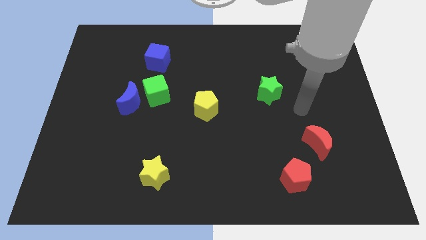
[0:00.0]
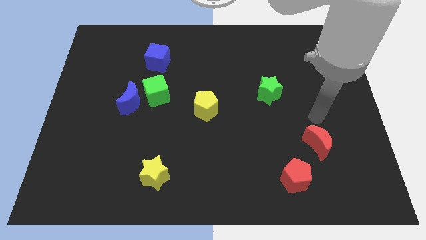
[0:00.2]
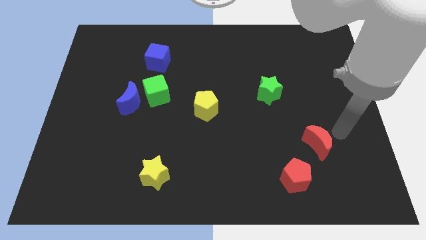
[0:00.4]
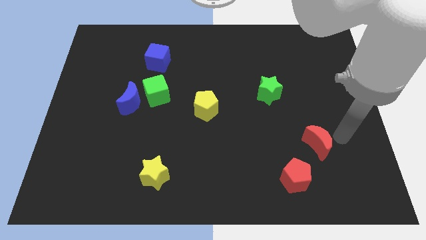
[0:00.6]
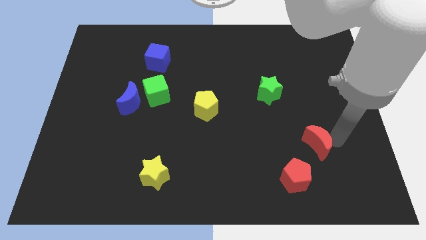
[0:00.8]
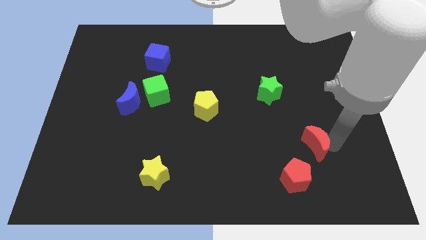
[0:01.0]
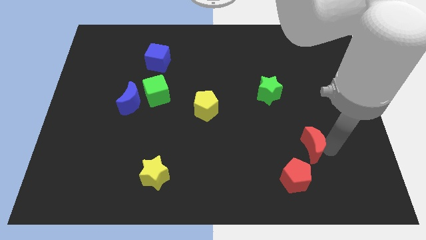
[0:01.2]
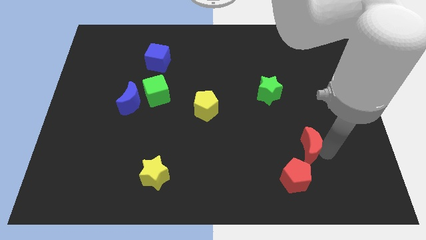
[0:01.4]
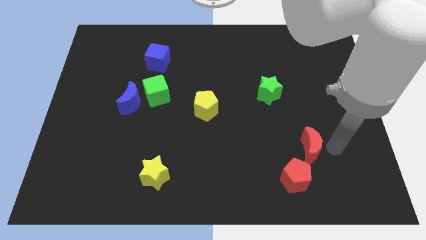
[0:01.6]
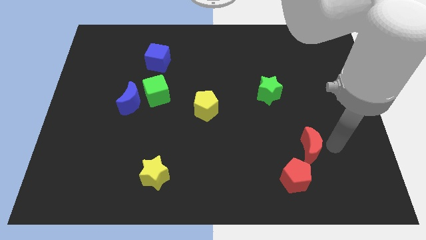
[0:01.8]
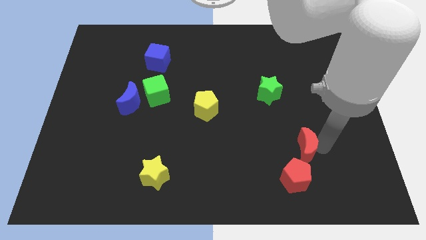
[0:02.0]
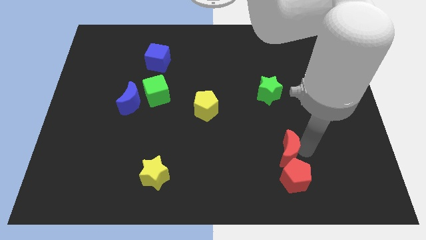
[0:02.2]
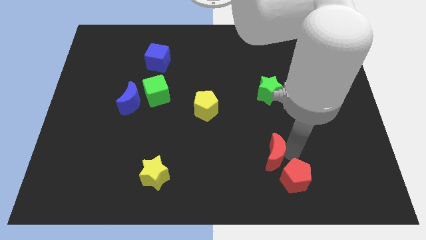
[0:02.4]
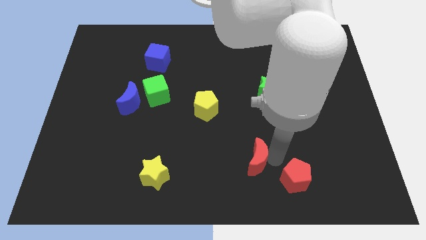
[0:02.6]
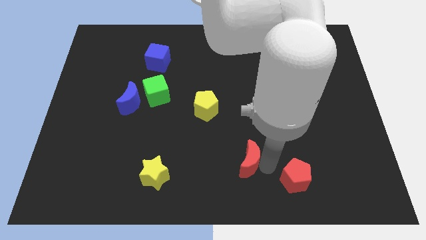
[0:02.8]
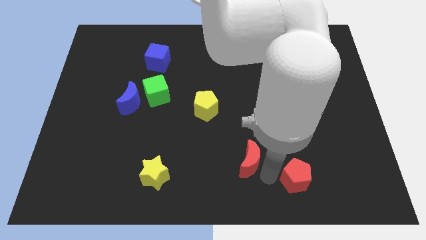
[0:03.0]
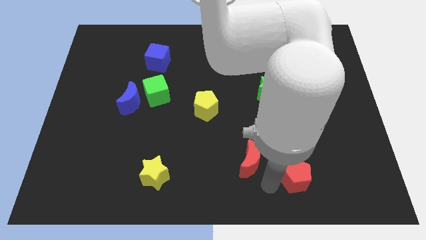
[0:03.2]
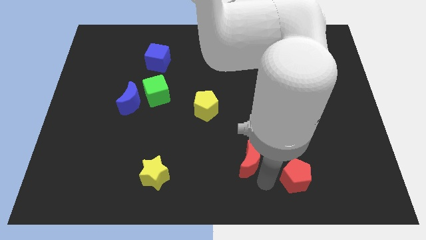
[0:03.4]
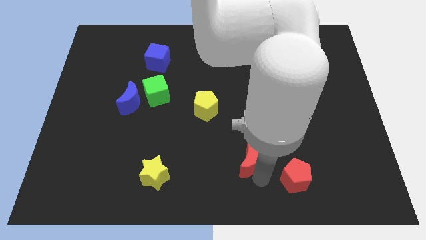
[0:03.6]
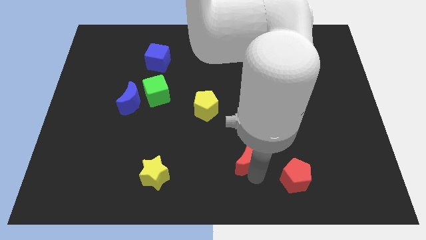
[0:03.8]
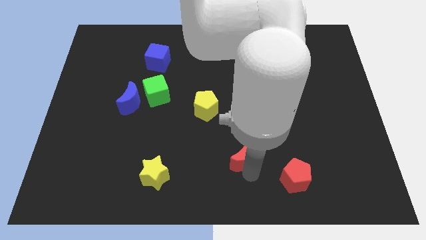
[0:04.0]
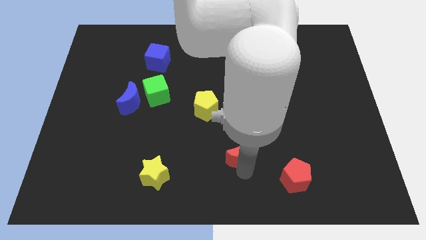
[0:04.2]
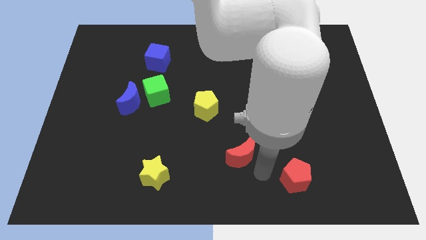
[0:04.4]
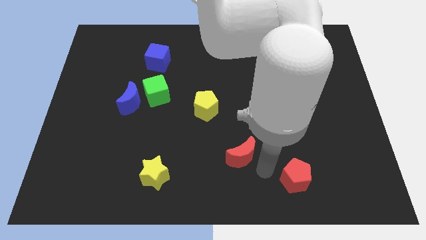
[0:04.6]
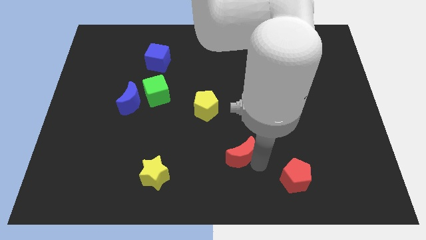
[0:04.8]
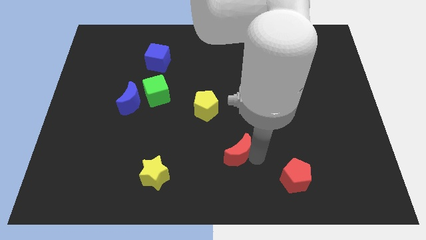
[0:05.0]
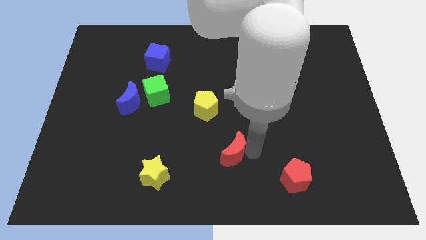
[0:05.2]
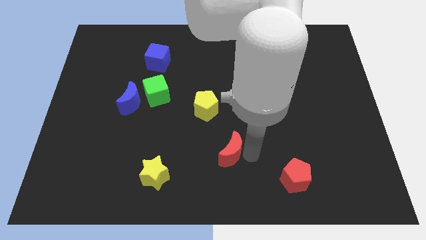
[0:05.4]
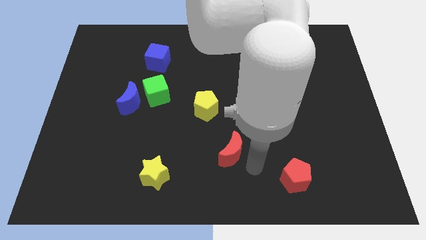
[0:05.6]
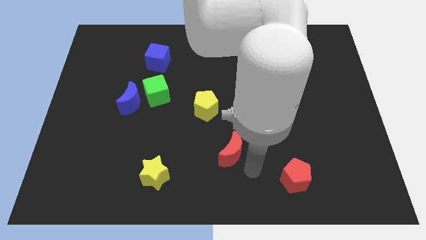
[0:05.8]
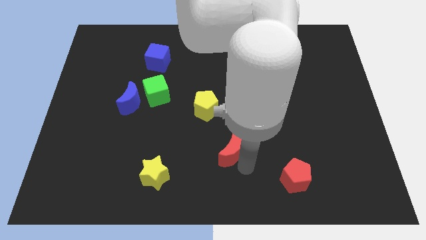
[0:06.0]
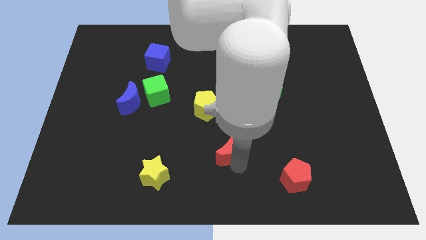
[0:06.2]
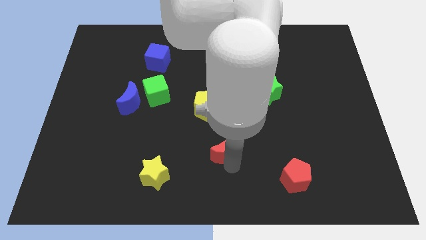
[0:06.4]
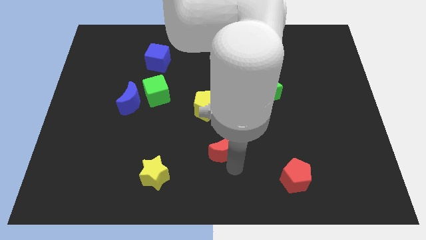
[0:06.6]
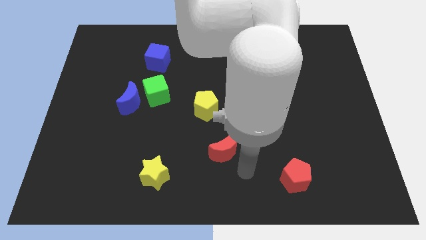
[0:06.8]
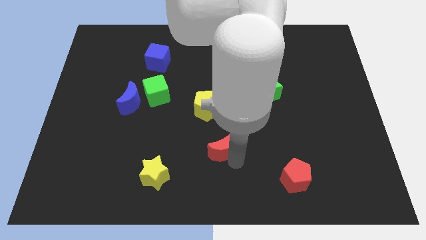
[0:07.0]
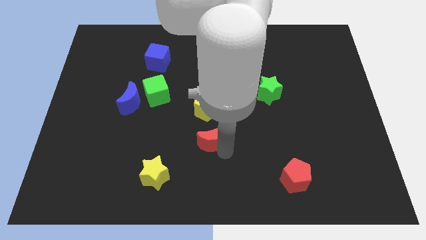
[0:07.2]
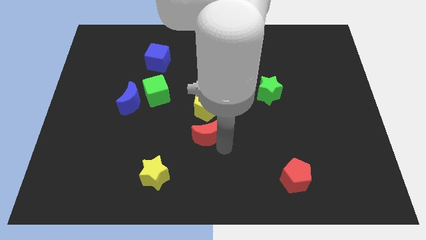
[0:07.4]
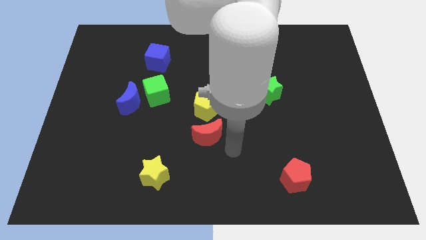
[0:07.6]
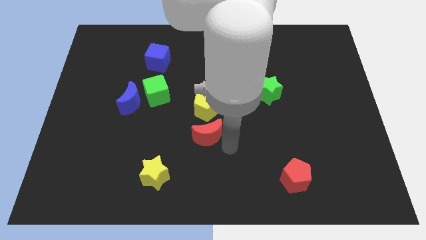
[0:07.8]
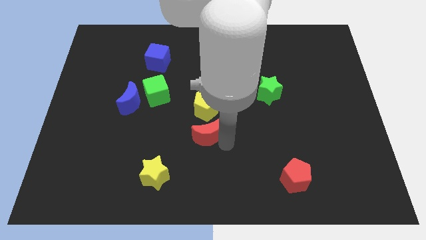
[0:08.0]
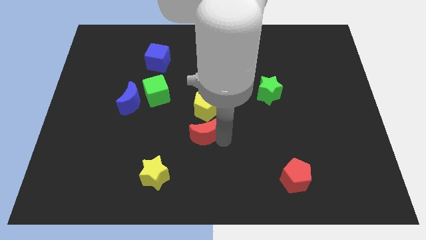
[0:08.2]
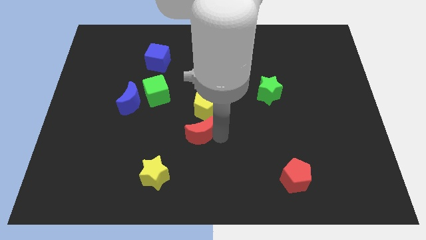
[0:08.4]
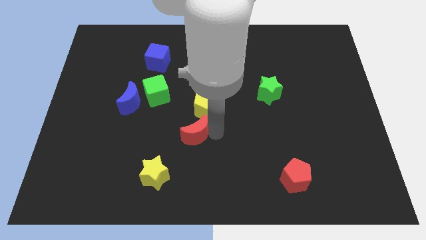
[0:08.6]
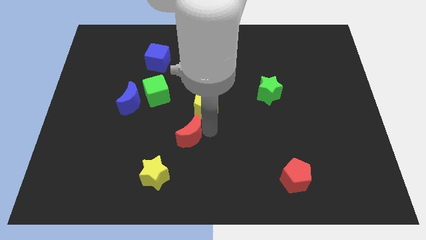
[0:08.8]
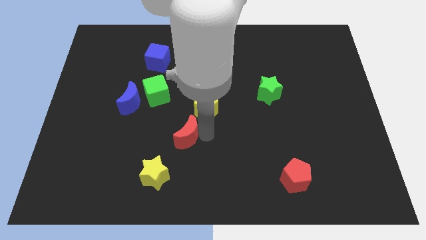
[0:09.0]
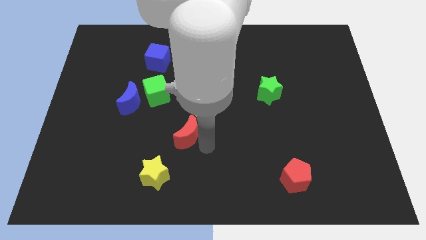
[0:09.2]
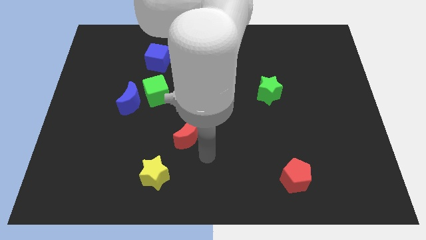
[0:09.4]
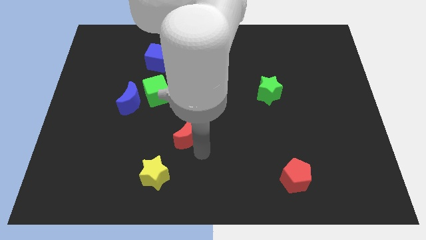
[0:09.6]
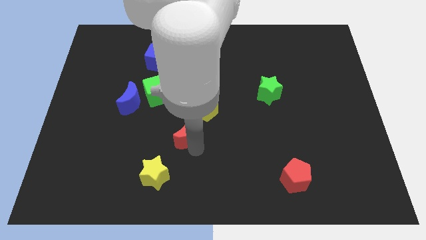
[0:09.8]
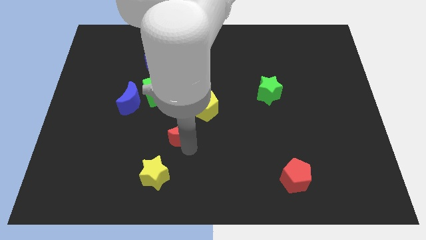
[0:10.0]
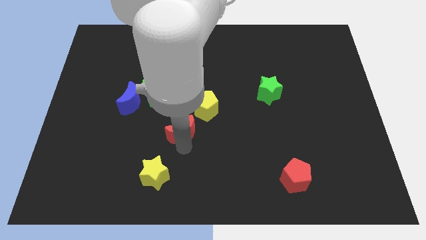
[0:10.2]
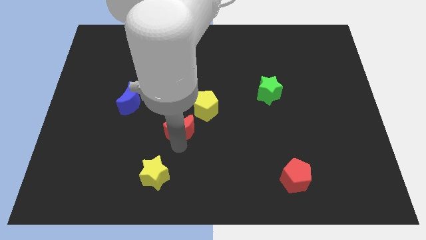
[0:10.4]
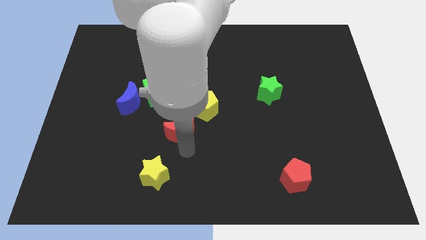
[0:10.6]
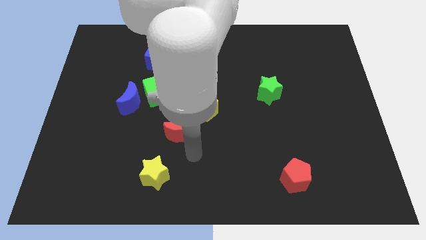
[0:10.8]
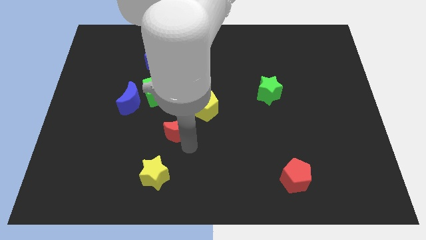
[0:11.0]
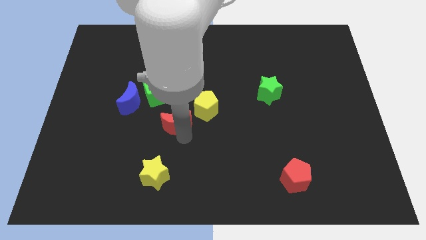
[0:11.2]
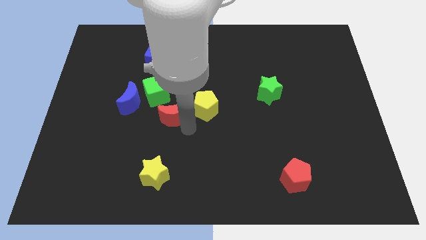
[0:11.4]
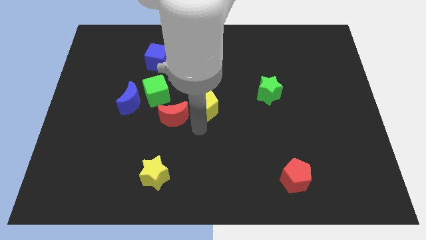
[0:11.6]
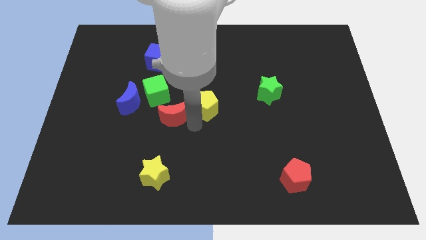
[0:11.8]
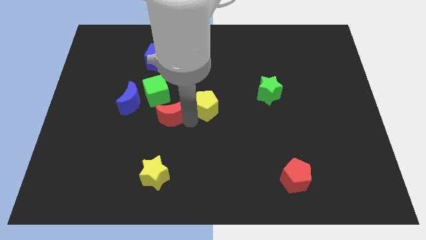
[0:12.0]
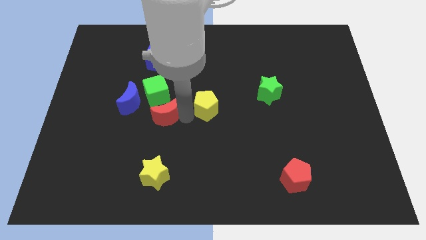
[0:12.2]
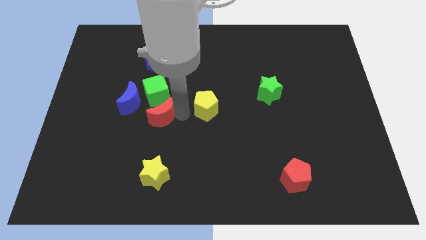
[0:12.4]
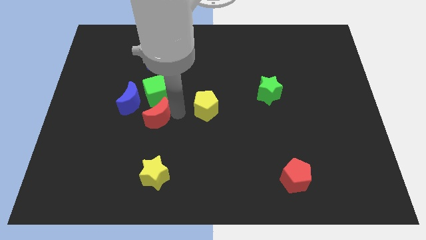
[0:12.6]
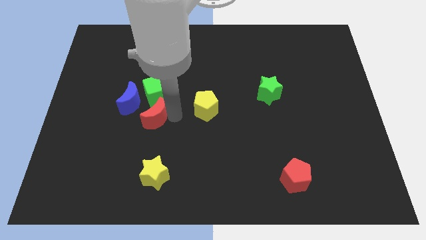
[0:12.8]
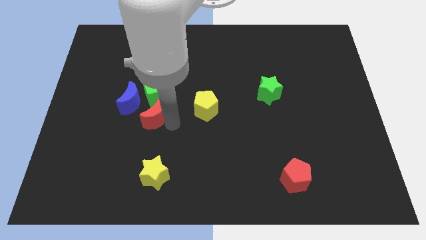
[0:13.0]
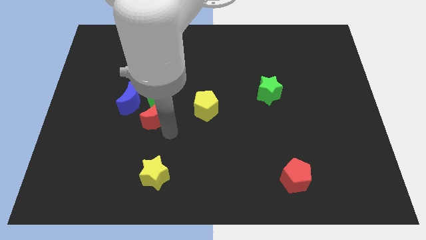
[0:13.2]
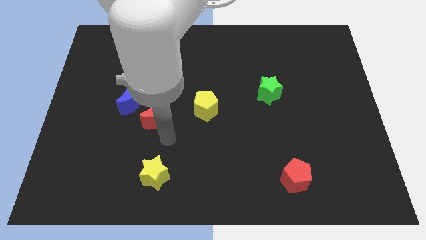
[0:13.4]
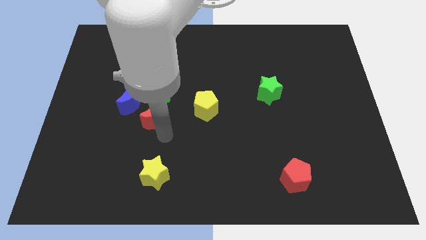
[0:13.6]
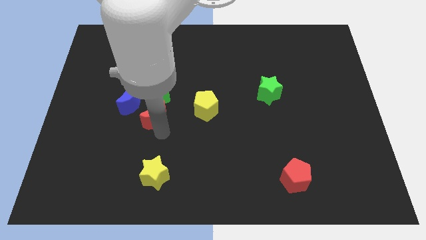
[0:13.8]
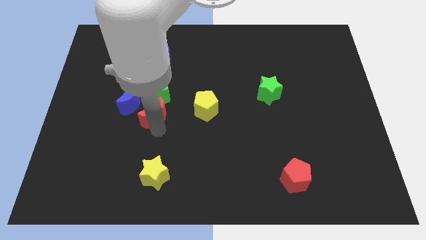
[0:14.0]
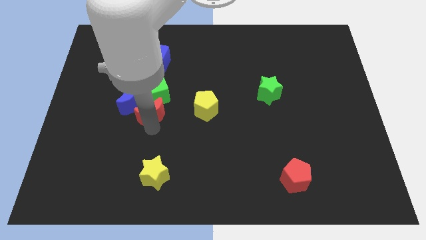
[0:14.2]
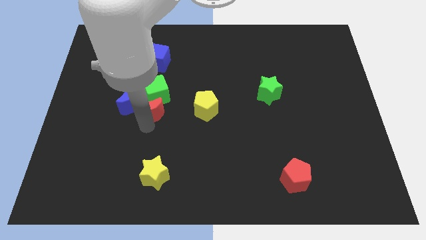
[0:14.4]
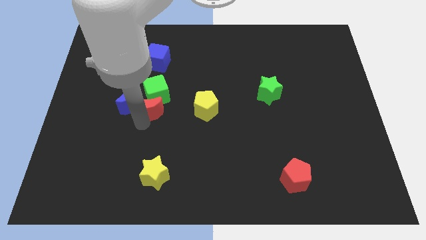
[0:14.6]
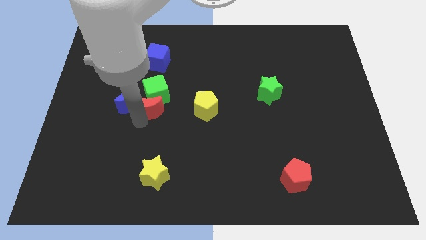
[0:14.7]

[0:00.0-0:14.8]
move the red moon below the blue cube
